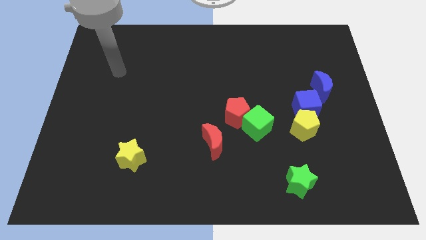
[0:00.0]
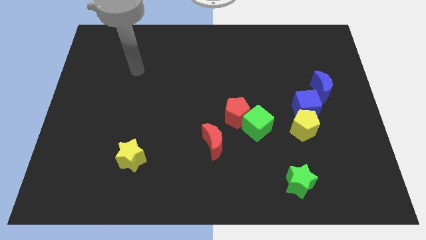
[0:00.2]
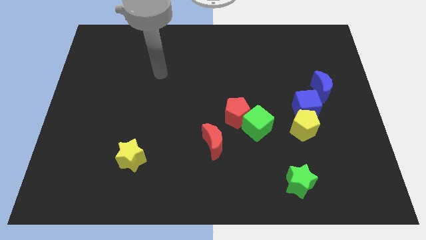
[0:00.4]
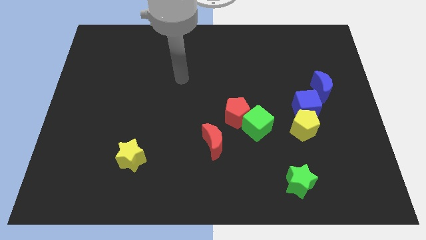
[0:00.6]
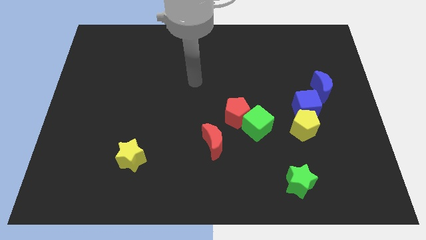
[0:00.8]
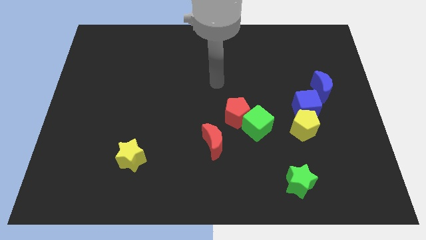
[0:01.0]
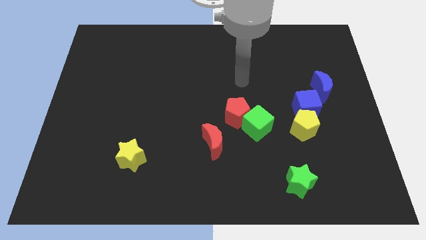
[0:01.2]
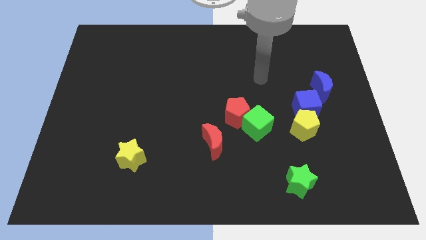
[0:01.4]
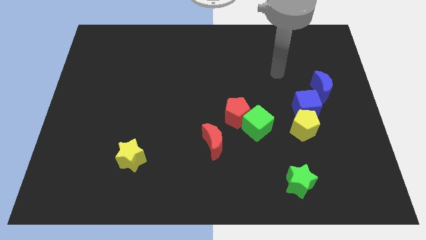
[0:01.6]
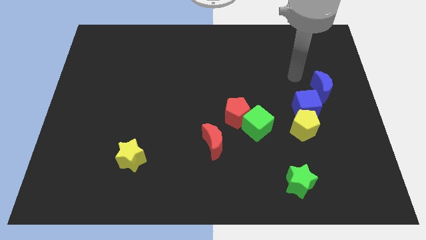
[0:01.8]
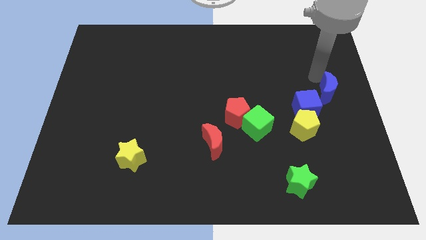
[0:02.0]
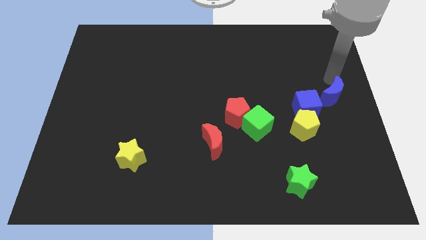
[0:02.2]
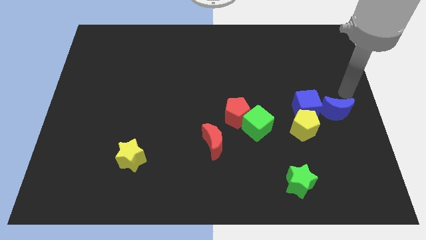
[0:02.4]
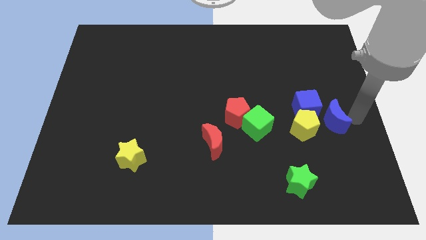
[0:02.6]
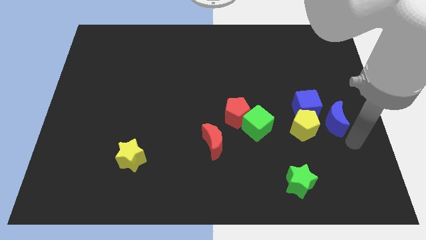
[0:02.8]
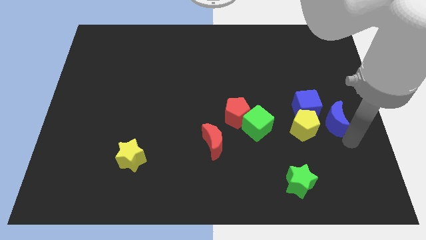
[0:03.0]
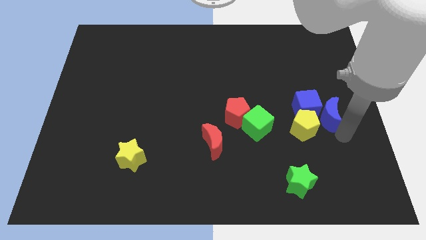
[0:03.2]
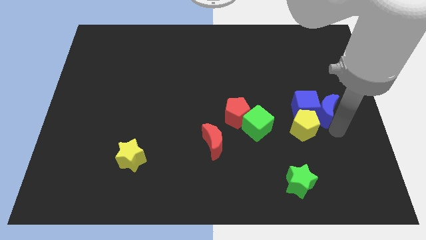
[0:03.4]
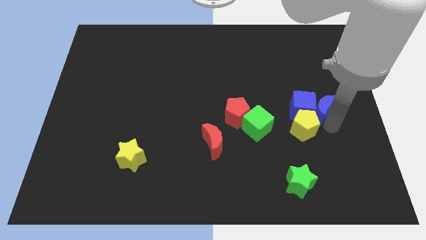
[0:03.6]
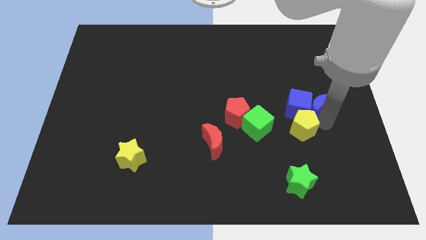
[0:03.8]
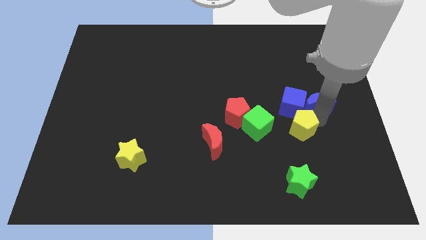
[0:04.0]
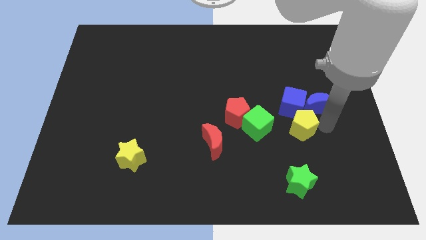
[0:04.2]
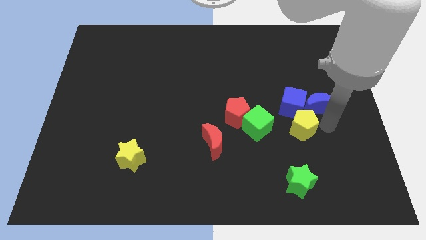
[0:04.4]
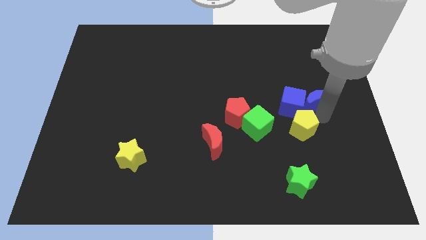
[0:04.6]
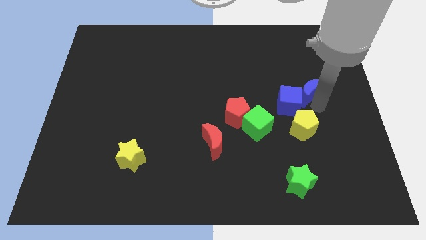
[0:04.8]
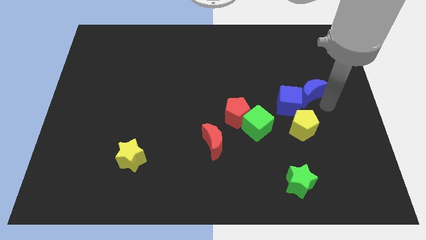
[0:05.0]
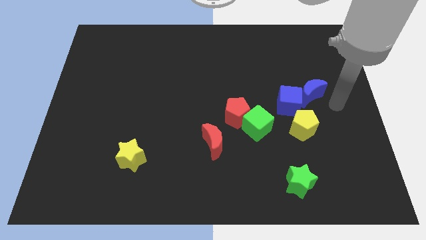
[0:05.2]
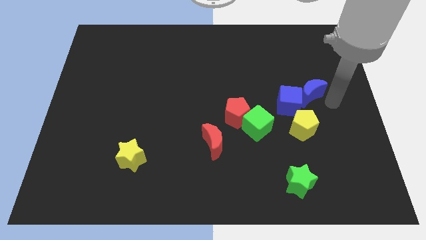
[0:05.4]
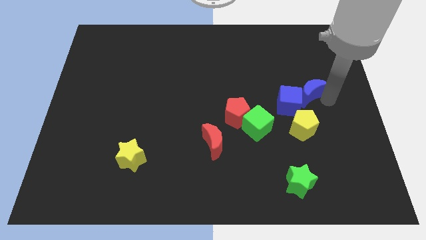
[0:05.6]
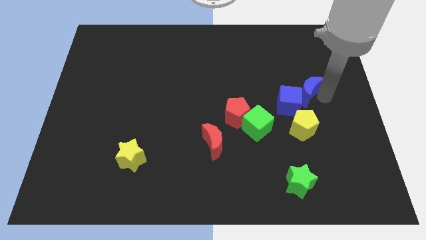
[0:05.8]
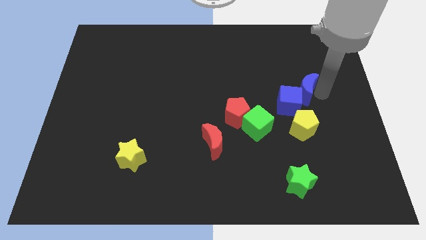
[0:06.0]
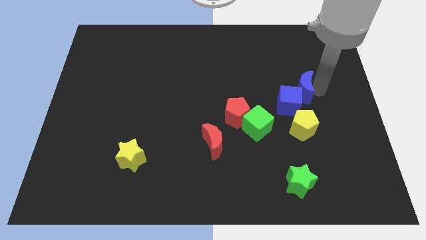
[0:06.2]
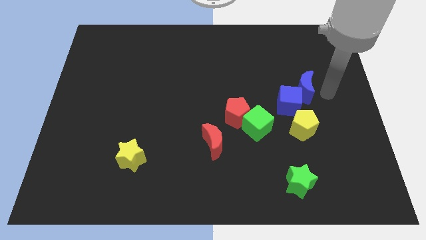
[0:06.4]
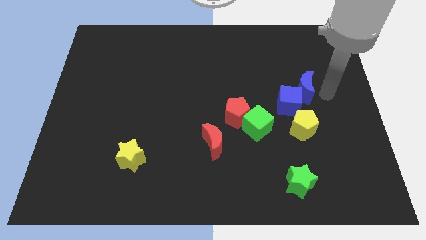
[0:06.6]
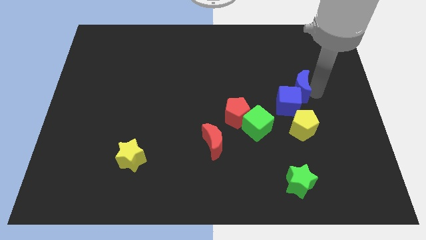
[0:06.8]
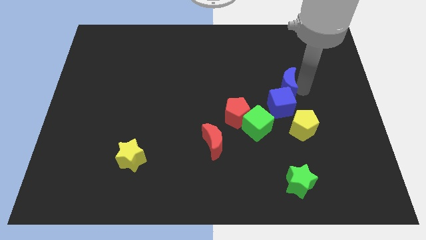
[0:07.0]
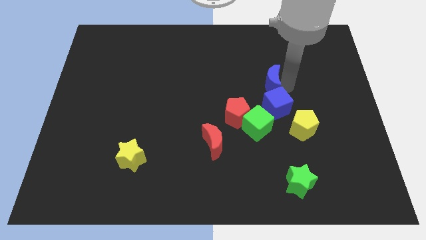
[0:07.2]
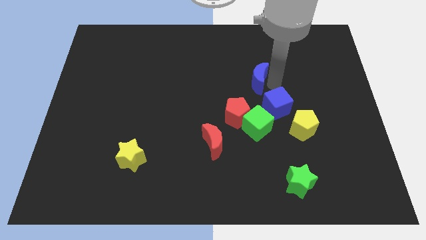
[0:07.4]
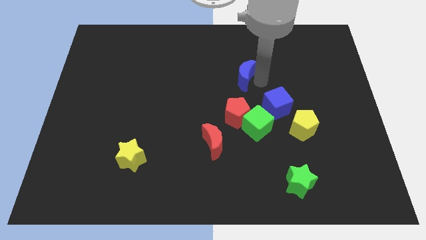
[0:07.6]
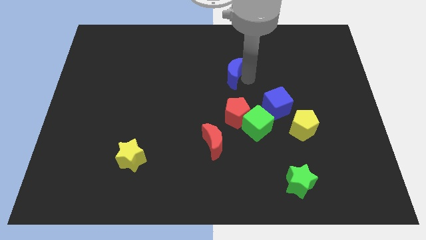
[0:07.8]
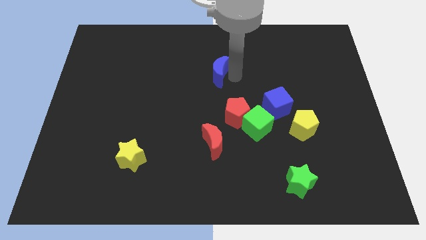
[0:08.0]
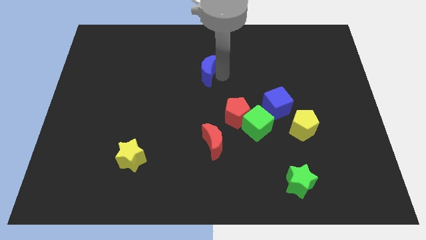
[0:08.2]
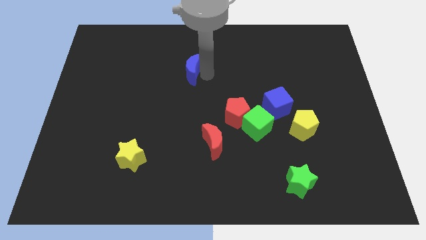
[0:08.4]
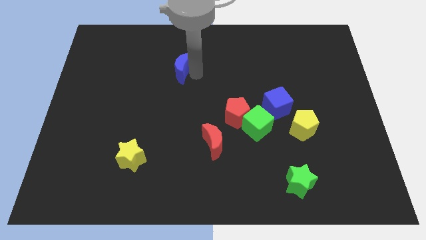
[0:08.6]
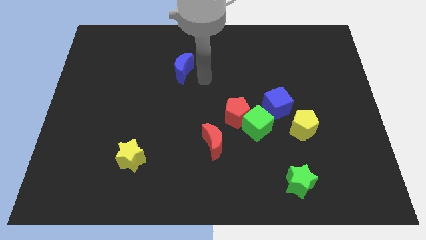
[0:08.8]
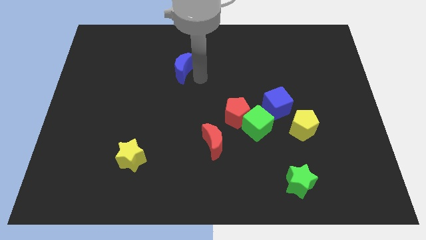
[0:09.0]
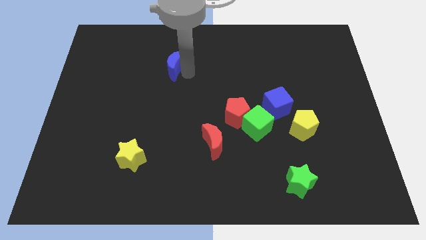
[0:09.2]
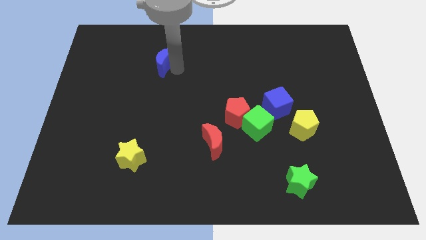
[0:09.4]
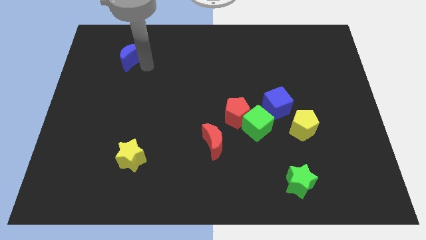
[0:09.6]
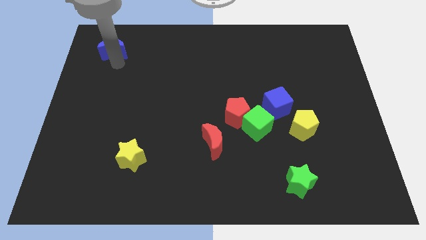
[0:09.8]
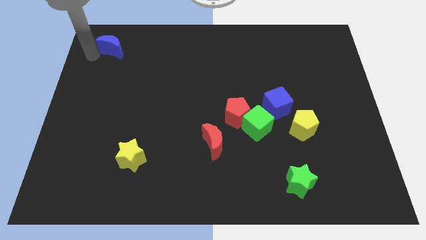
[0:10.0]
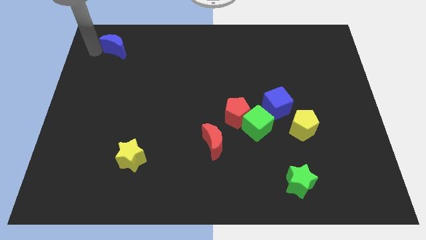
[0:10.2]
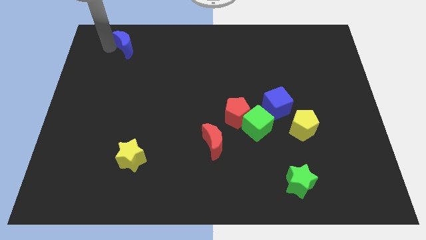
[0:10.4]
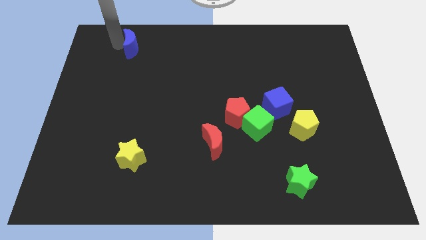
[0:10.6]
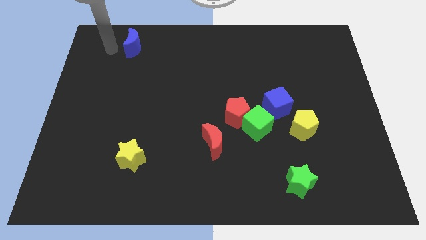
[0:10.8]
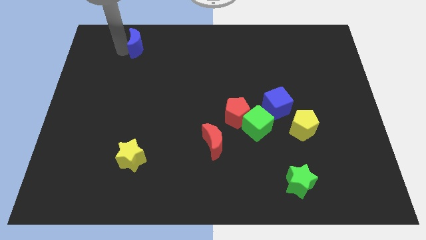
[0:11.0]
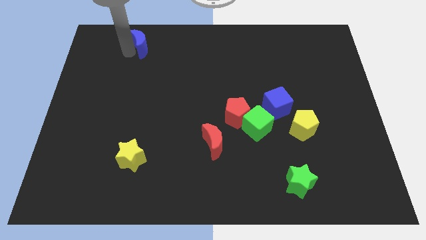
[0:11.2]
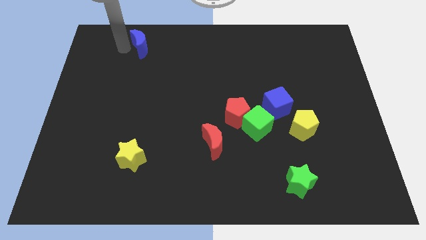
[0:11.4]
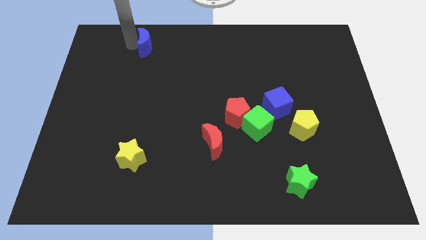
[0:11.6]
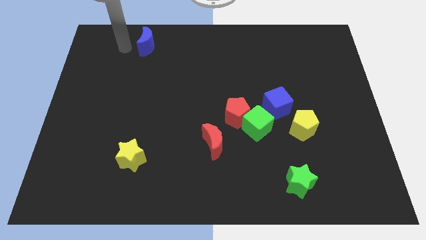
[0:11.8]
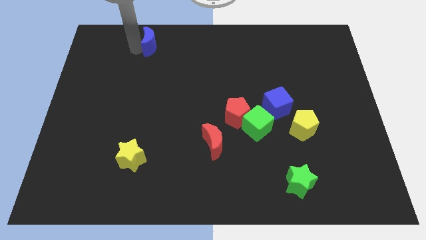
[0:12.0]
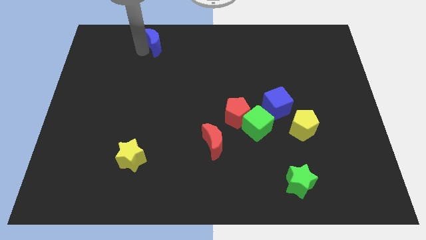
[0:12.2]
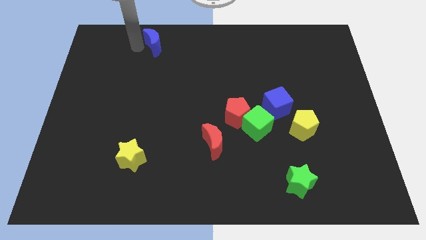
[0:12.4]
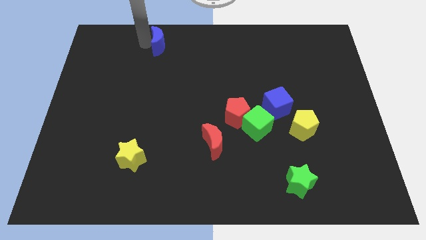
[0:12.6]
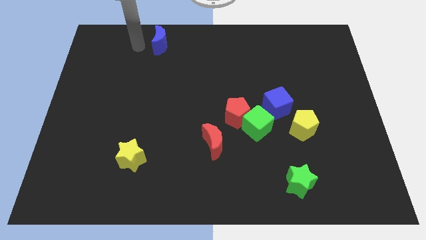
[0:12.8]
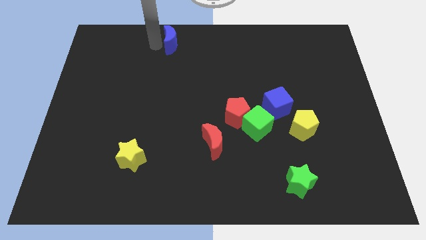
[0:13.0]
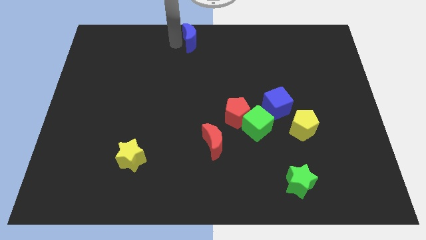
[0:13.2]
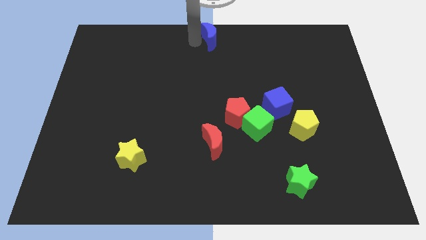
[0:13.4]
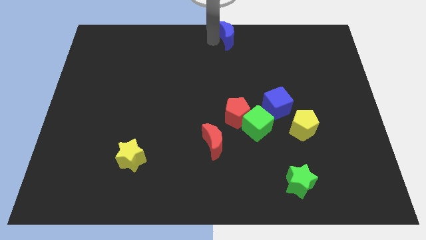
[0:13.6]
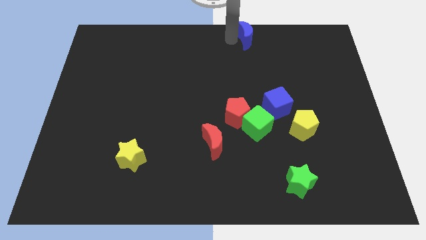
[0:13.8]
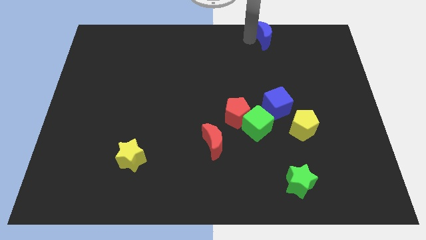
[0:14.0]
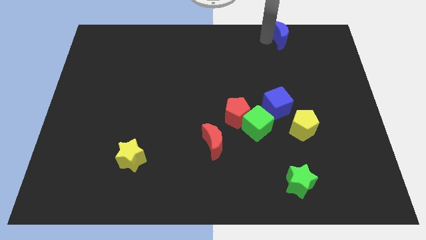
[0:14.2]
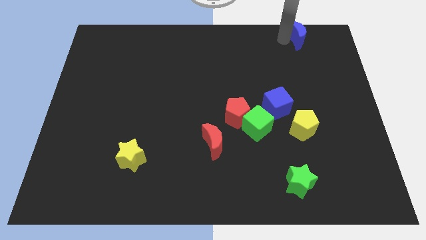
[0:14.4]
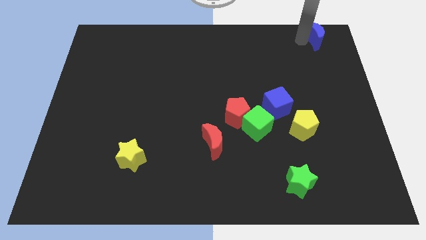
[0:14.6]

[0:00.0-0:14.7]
put the blue moon to the top right of the board
